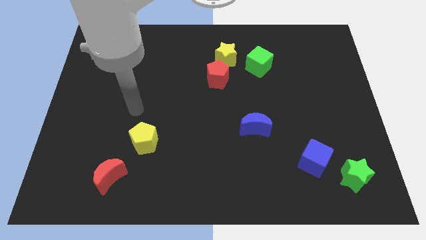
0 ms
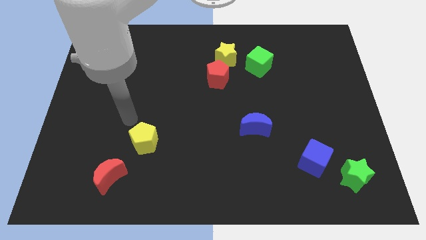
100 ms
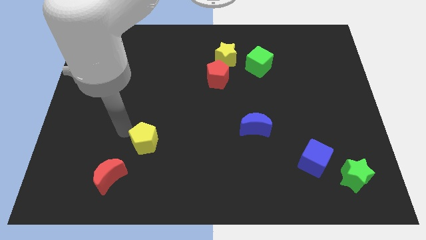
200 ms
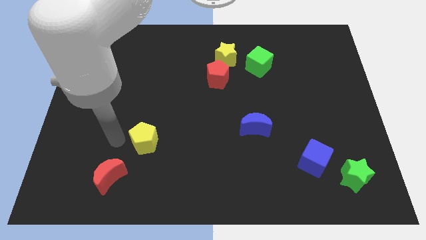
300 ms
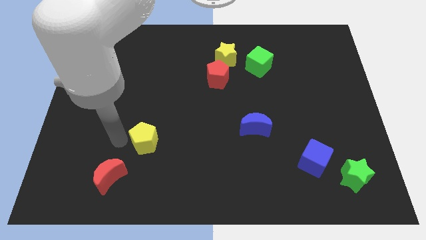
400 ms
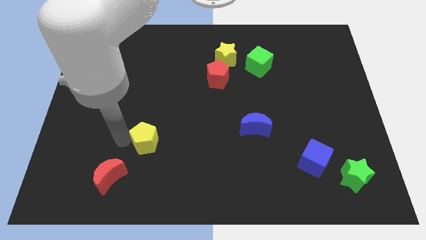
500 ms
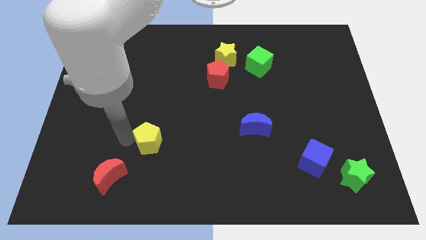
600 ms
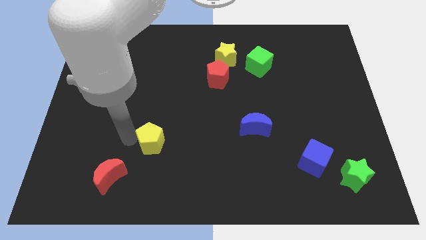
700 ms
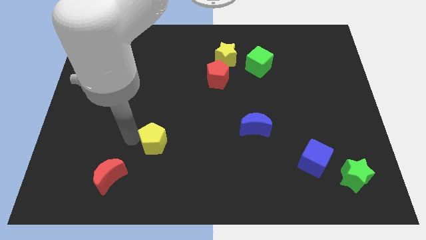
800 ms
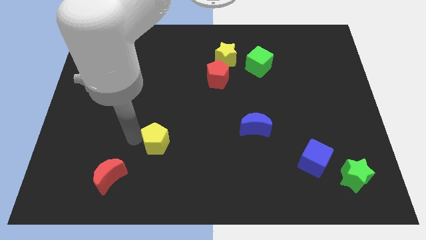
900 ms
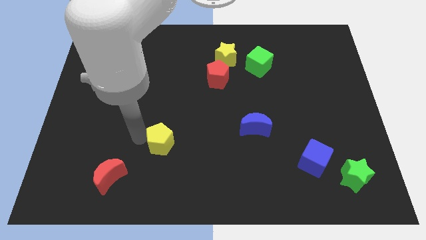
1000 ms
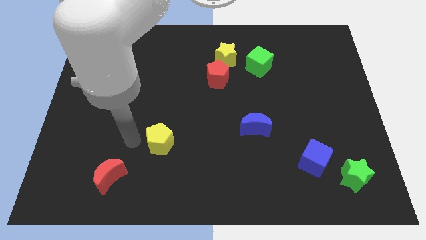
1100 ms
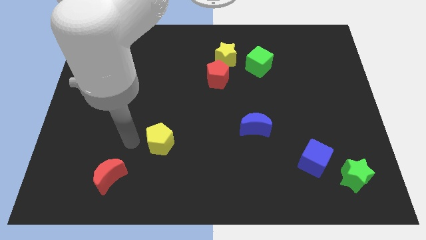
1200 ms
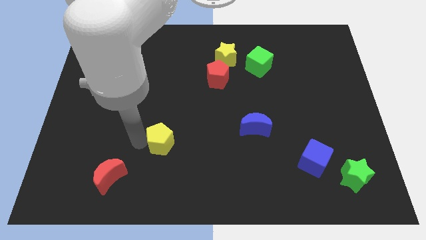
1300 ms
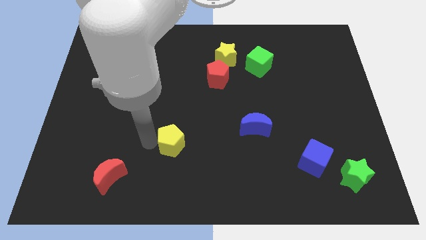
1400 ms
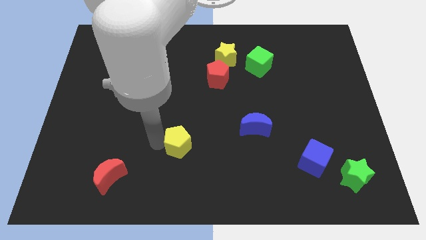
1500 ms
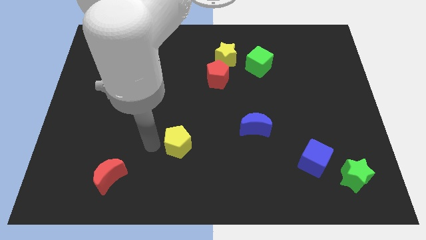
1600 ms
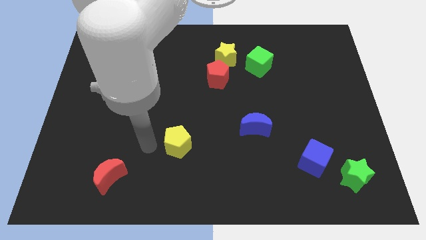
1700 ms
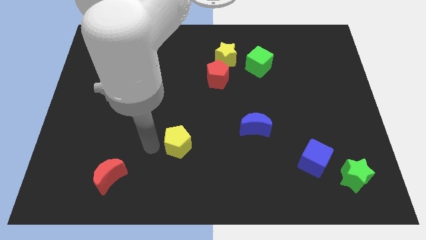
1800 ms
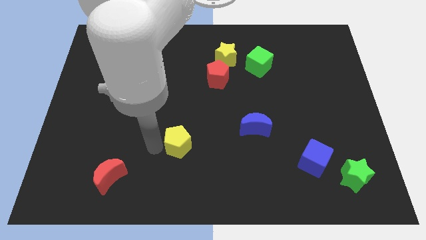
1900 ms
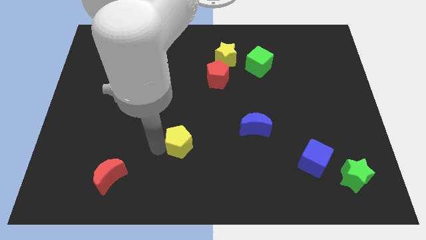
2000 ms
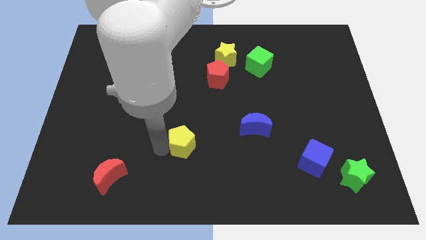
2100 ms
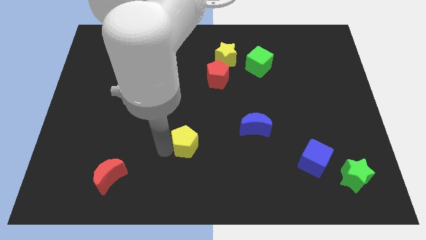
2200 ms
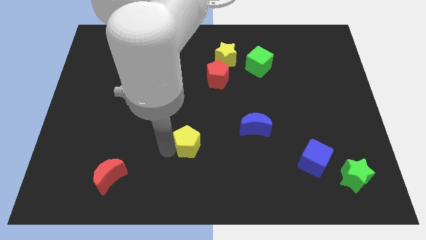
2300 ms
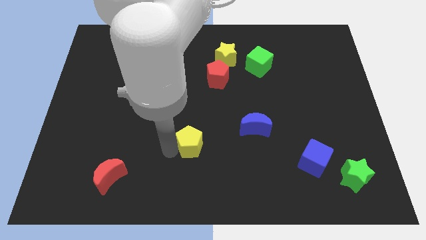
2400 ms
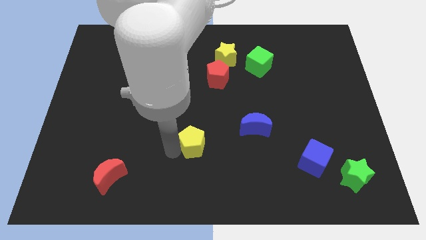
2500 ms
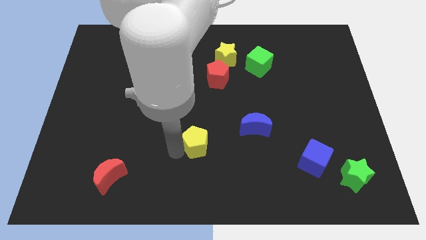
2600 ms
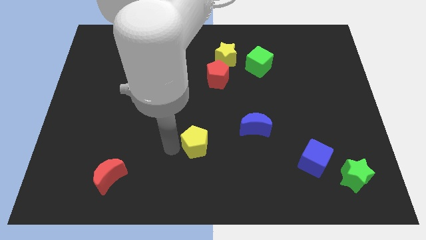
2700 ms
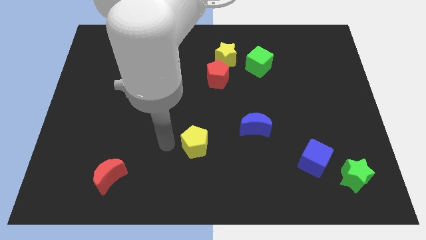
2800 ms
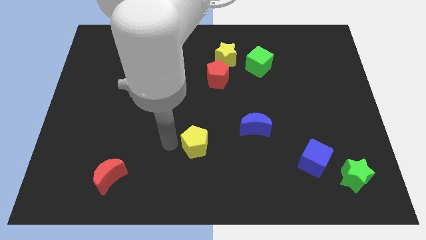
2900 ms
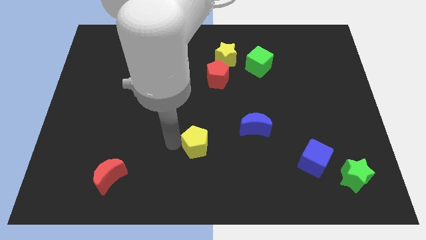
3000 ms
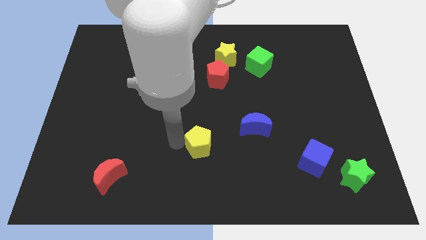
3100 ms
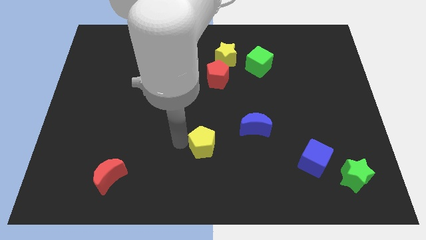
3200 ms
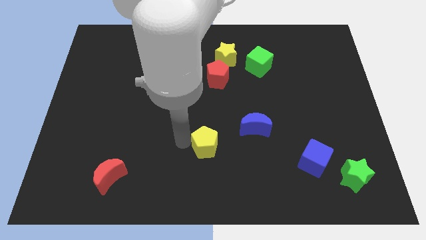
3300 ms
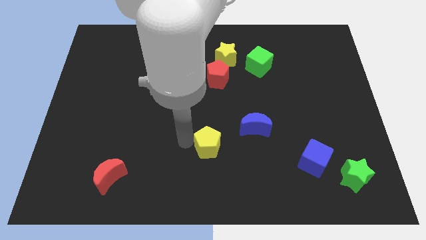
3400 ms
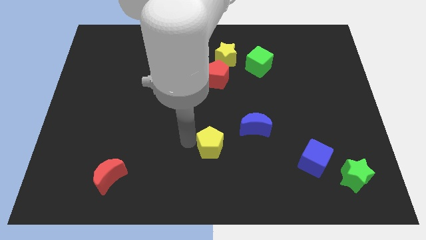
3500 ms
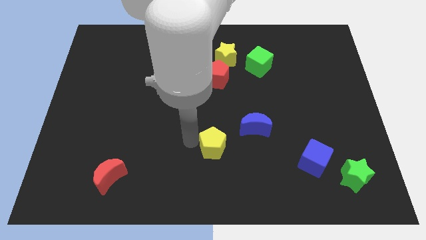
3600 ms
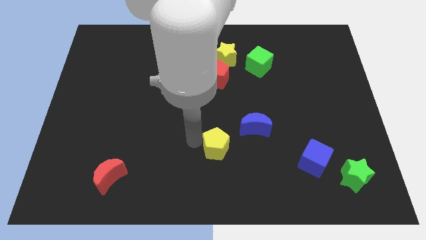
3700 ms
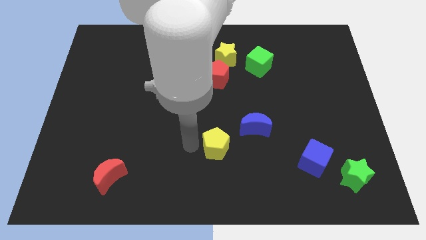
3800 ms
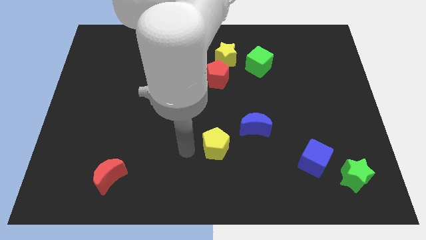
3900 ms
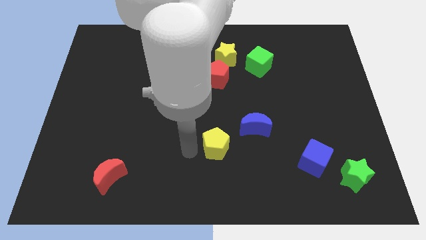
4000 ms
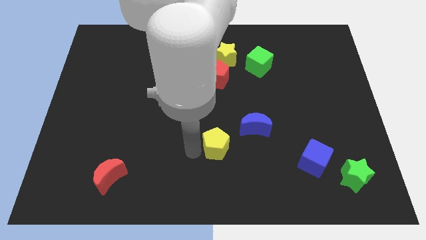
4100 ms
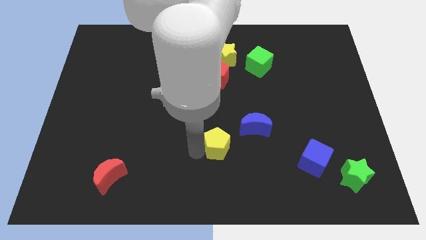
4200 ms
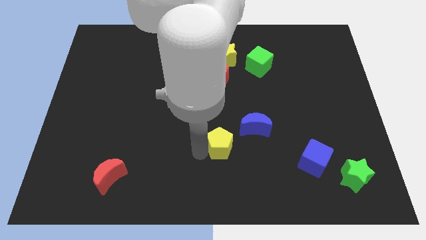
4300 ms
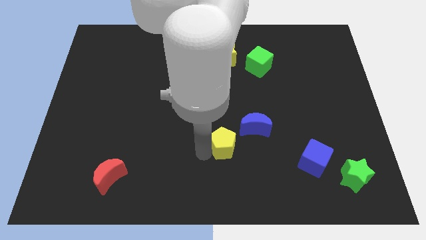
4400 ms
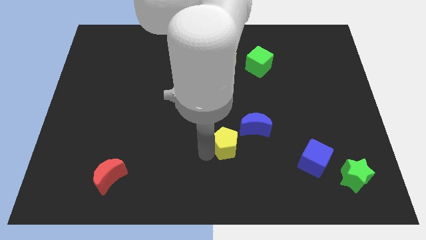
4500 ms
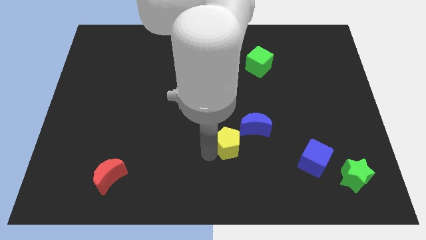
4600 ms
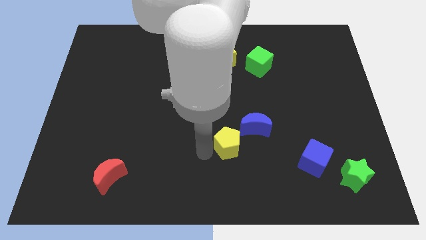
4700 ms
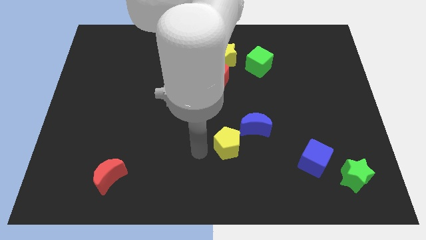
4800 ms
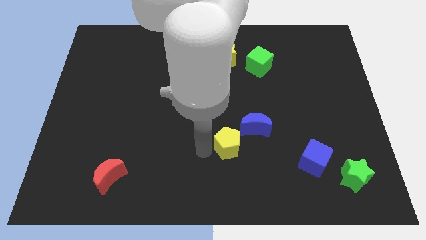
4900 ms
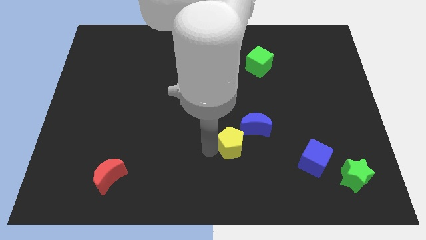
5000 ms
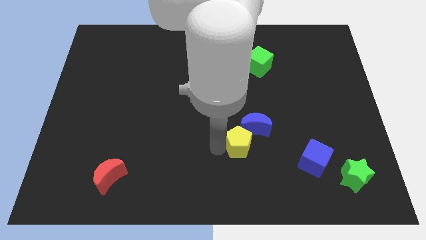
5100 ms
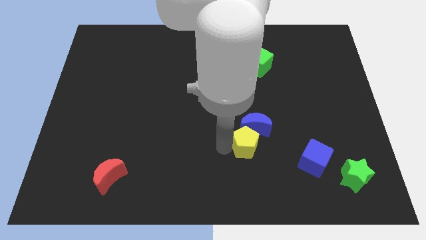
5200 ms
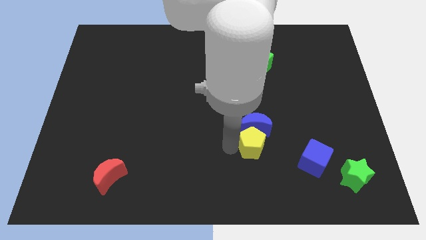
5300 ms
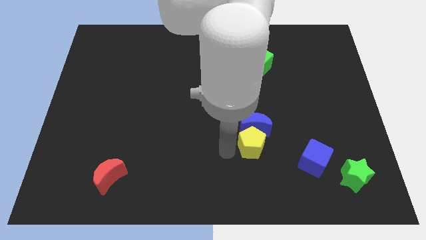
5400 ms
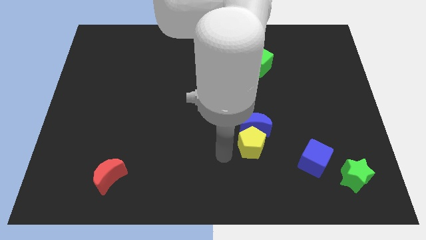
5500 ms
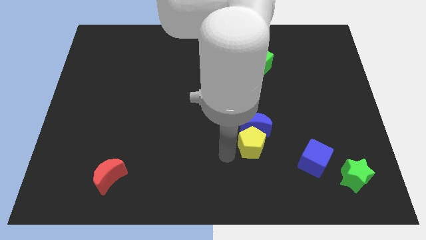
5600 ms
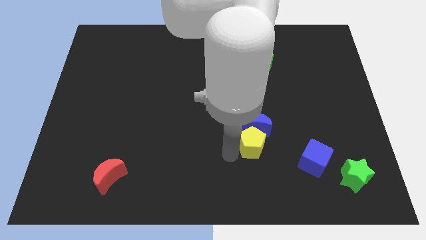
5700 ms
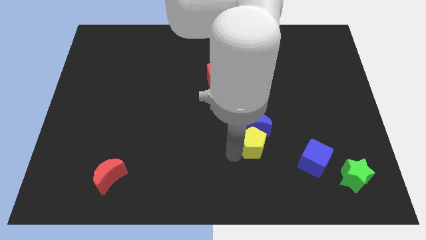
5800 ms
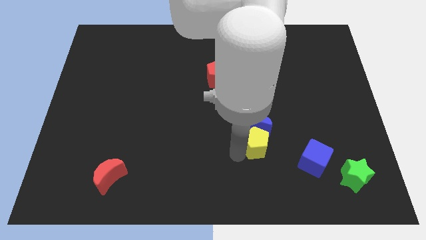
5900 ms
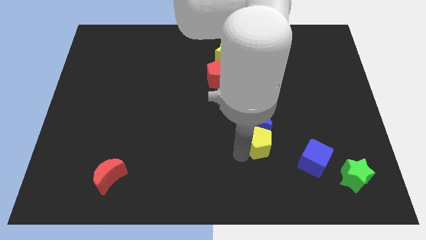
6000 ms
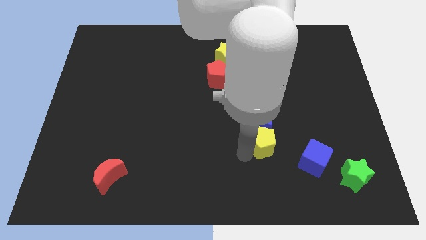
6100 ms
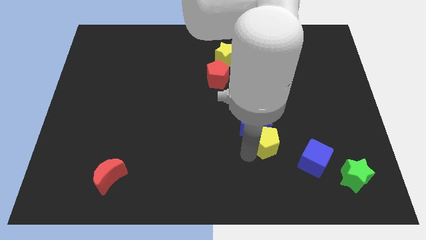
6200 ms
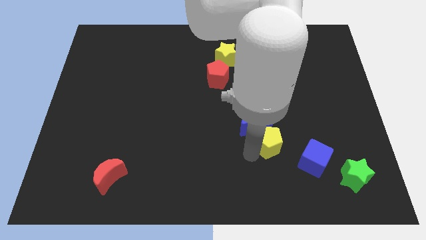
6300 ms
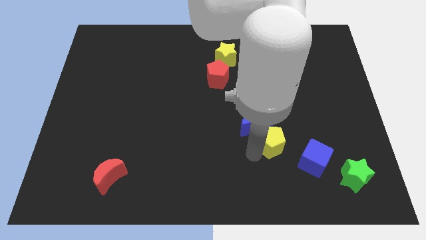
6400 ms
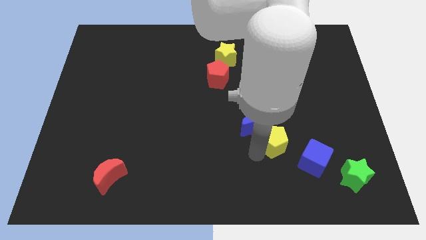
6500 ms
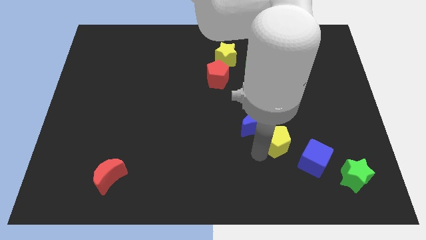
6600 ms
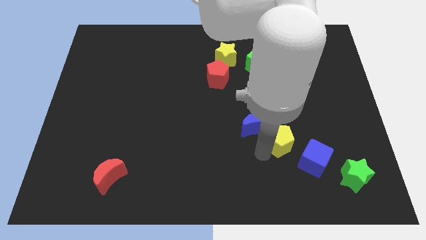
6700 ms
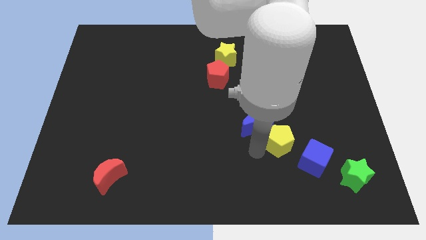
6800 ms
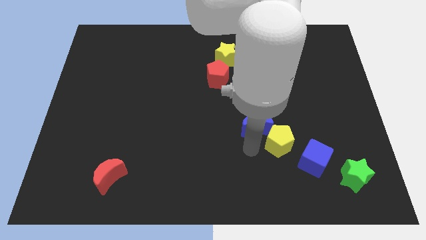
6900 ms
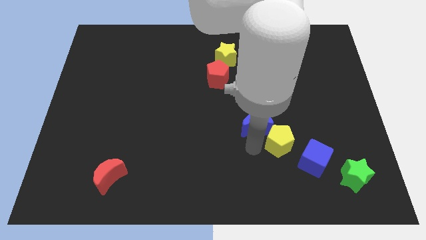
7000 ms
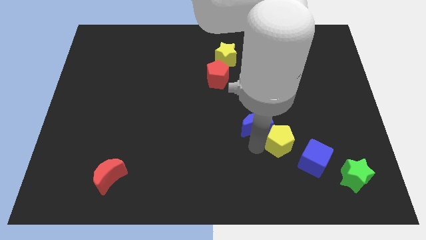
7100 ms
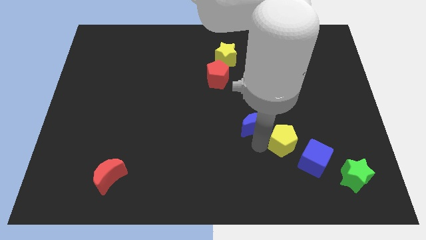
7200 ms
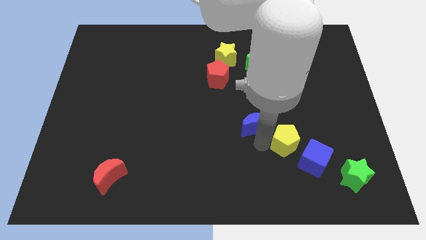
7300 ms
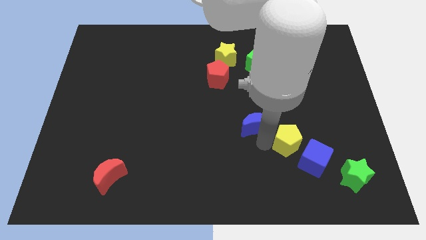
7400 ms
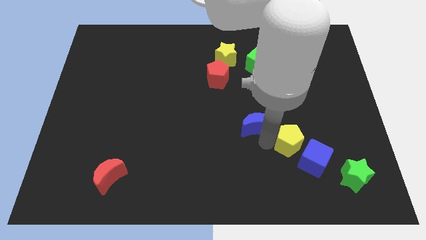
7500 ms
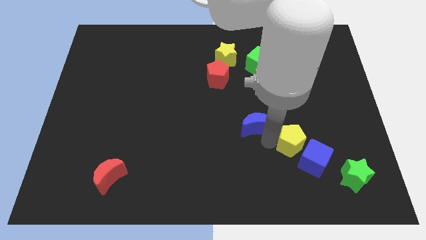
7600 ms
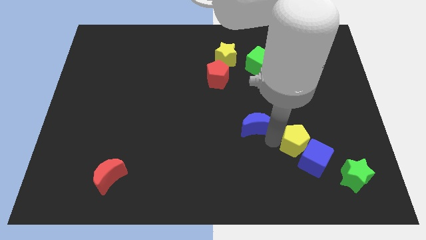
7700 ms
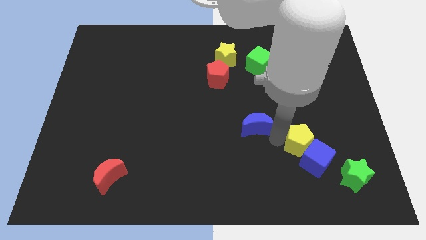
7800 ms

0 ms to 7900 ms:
put the yellow pentagon diagonally up and to the left of the green star
